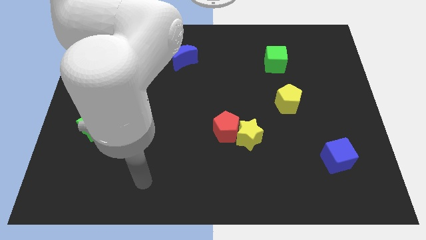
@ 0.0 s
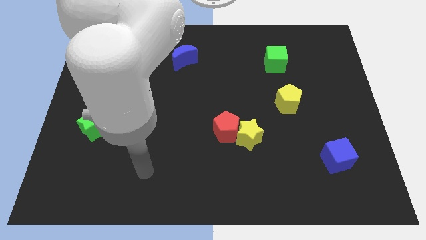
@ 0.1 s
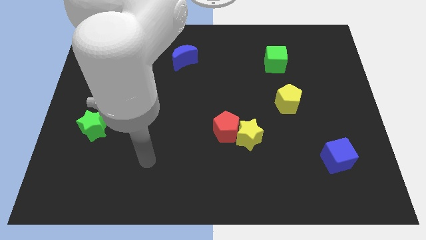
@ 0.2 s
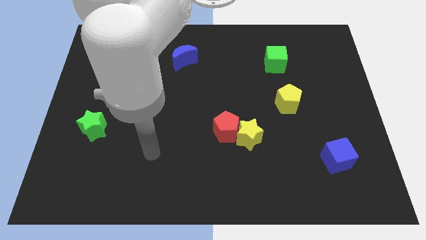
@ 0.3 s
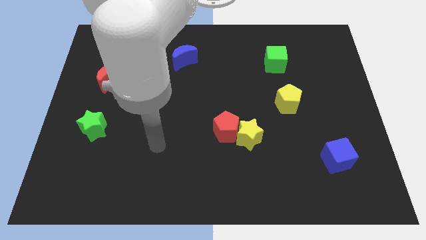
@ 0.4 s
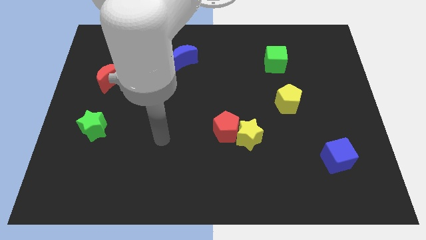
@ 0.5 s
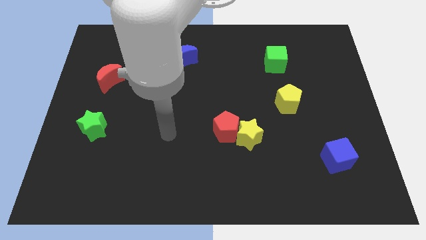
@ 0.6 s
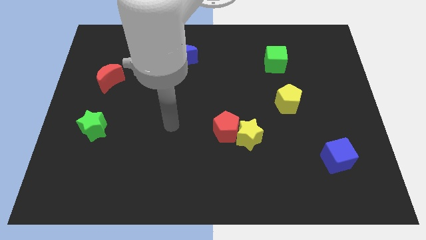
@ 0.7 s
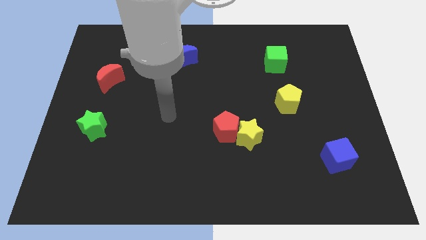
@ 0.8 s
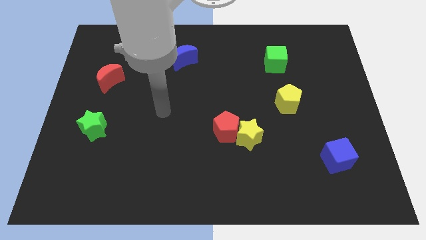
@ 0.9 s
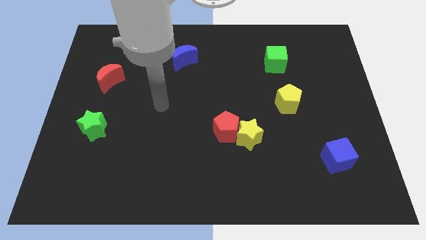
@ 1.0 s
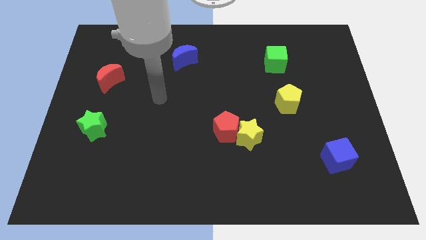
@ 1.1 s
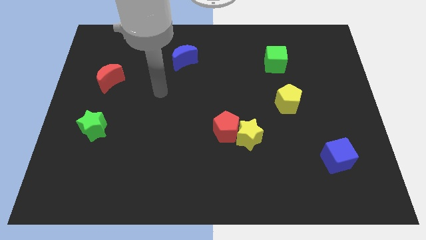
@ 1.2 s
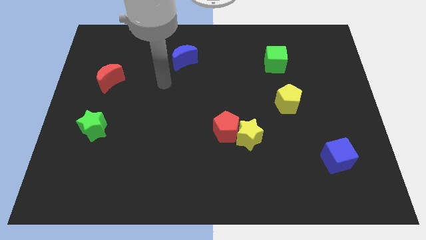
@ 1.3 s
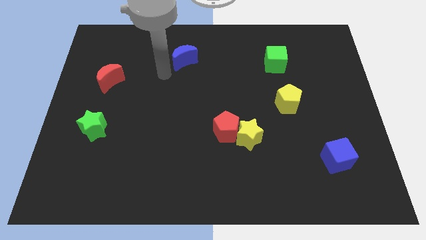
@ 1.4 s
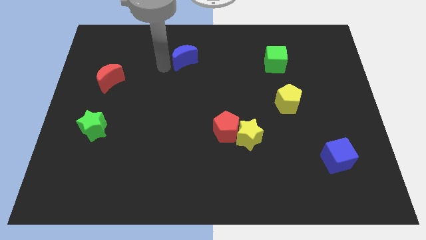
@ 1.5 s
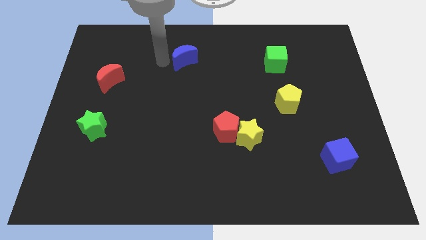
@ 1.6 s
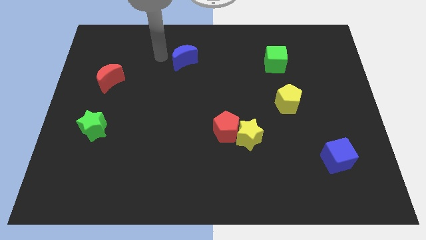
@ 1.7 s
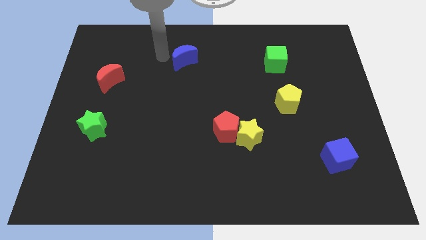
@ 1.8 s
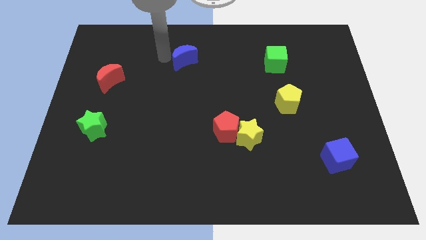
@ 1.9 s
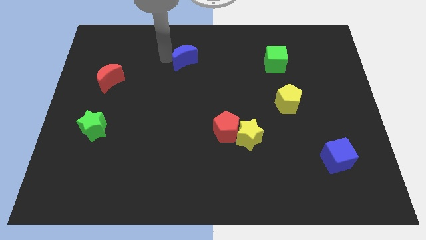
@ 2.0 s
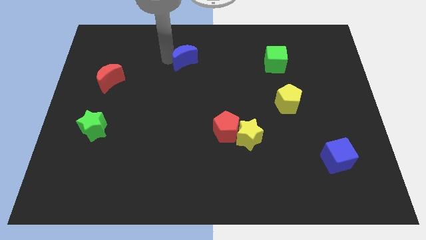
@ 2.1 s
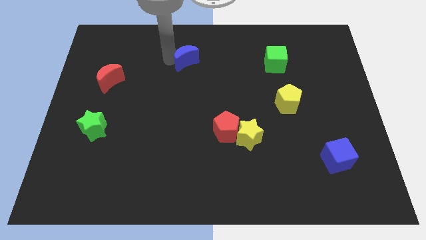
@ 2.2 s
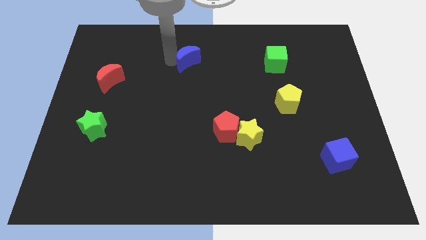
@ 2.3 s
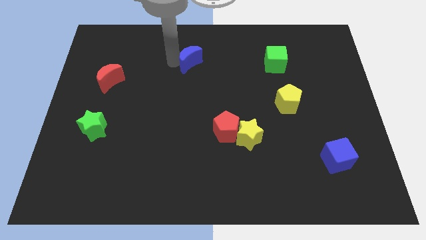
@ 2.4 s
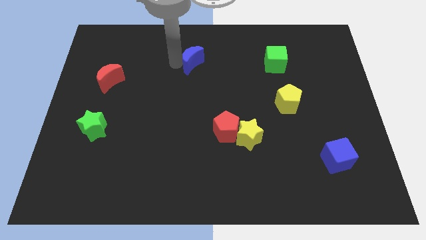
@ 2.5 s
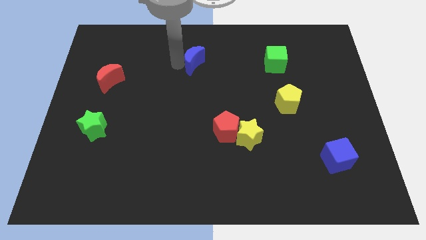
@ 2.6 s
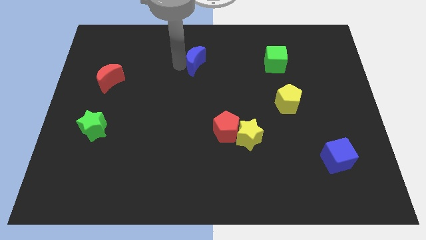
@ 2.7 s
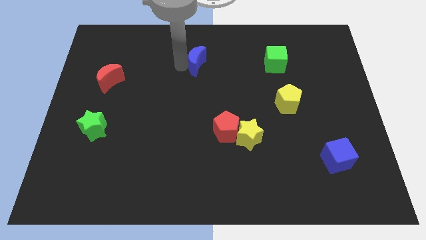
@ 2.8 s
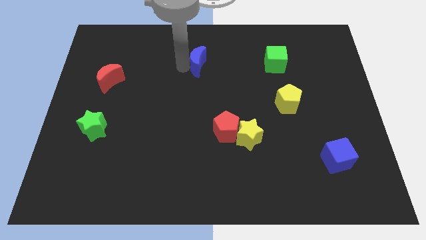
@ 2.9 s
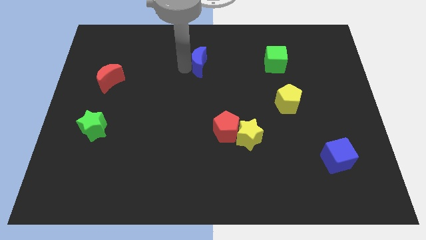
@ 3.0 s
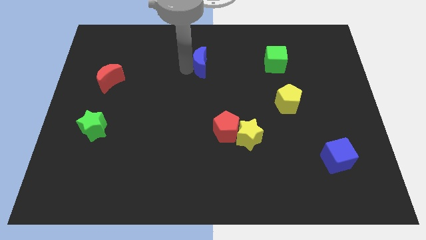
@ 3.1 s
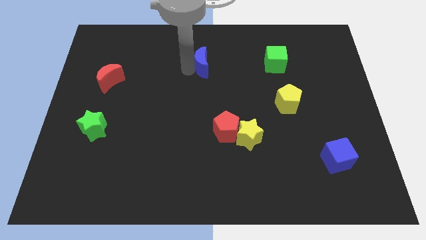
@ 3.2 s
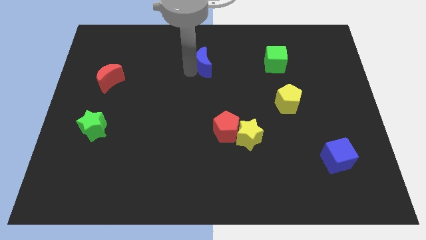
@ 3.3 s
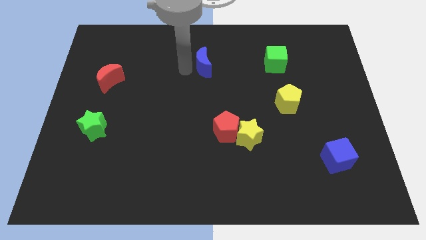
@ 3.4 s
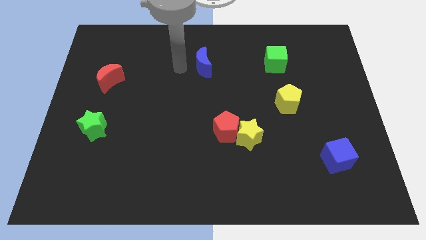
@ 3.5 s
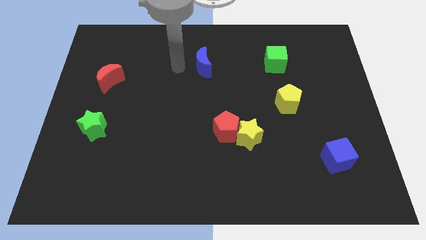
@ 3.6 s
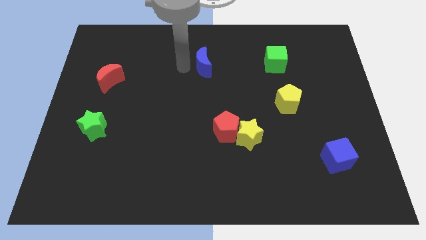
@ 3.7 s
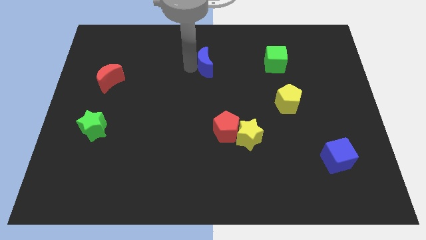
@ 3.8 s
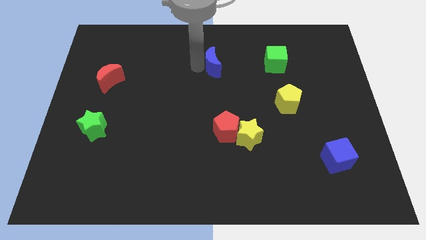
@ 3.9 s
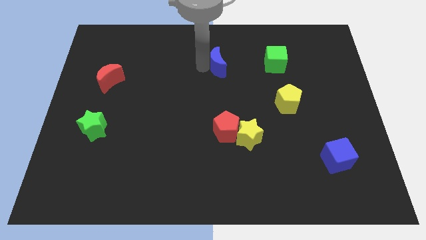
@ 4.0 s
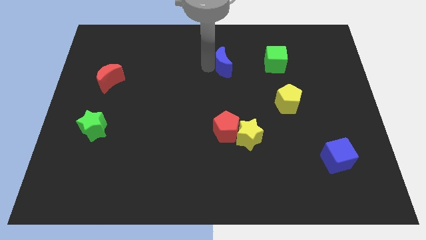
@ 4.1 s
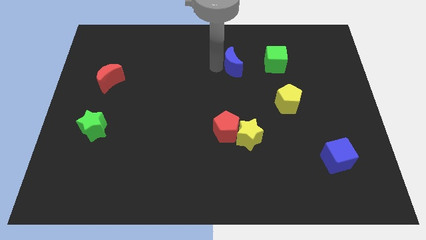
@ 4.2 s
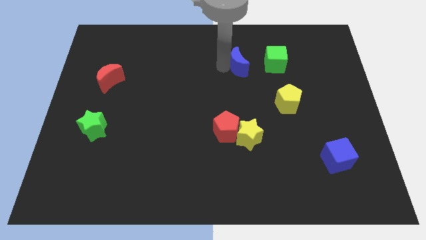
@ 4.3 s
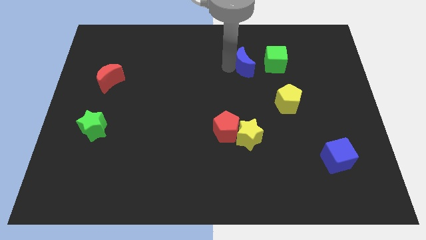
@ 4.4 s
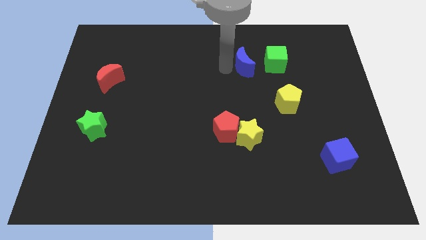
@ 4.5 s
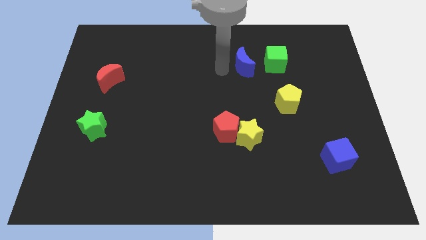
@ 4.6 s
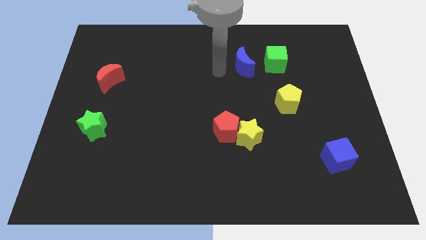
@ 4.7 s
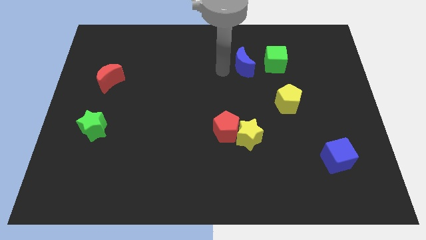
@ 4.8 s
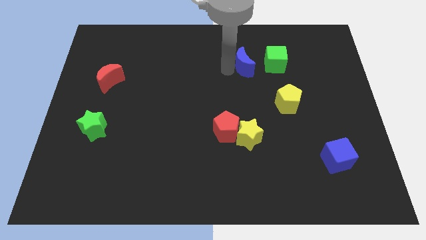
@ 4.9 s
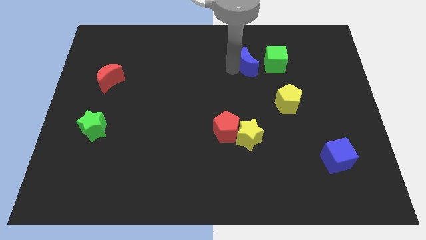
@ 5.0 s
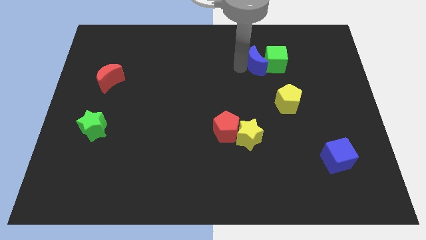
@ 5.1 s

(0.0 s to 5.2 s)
put the blue moon next to the green cube

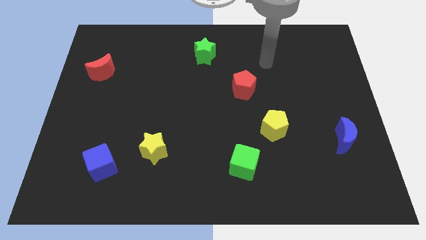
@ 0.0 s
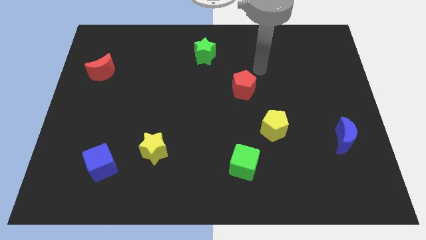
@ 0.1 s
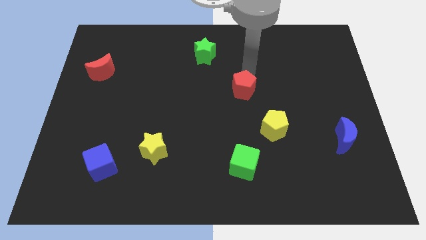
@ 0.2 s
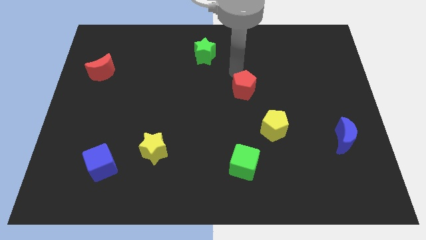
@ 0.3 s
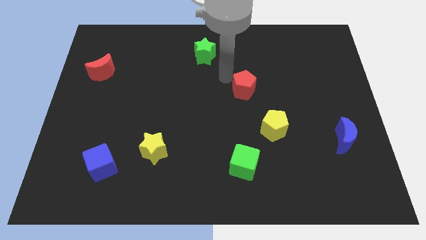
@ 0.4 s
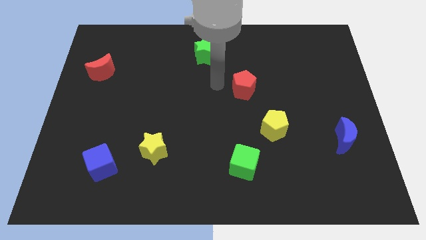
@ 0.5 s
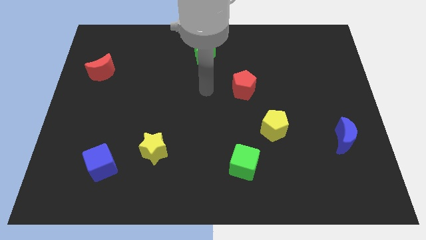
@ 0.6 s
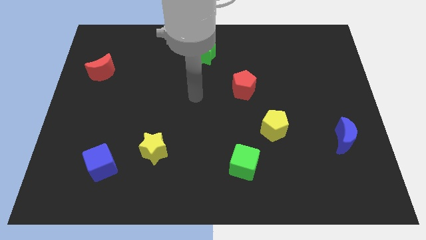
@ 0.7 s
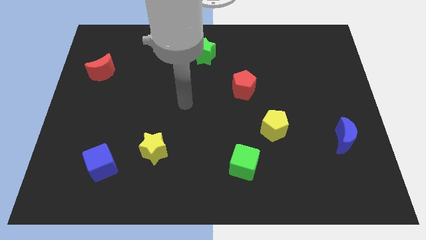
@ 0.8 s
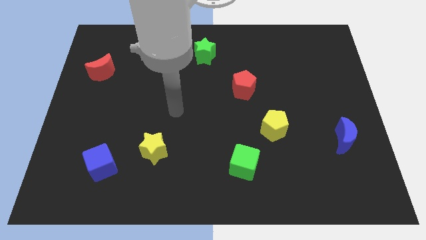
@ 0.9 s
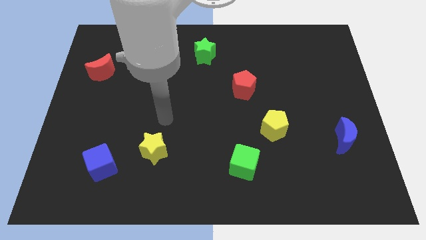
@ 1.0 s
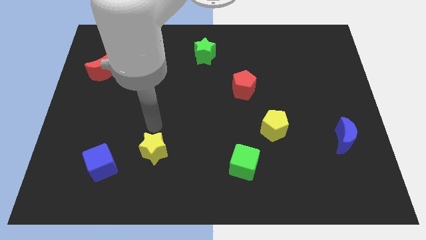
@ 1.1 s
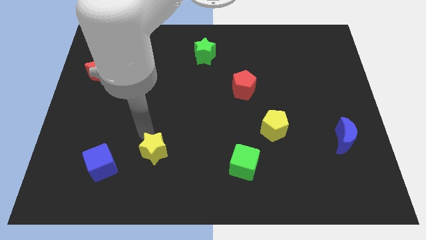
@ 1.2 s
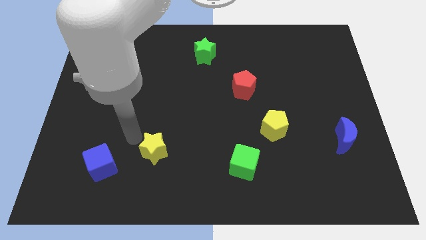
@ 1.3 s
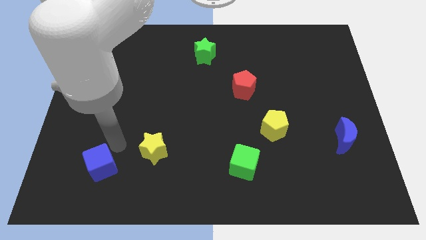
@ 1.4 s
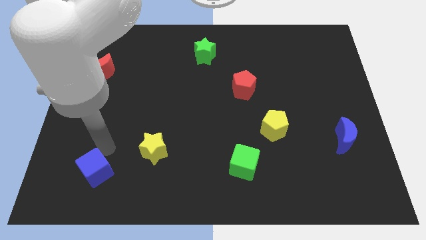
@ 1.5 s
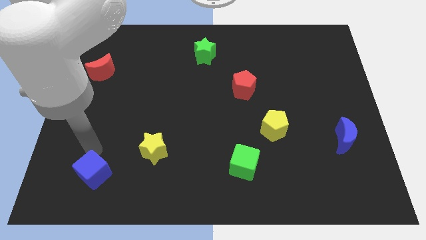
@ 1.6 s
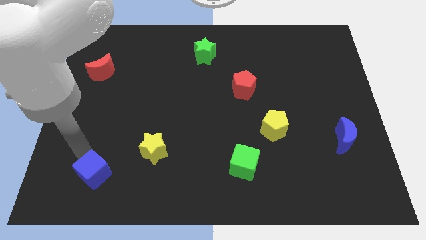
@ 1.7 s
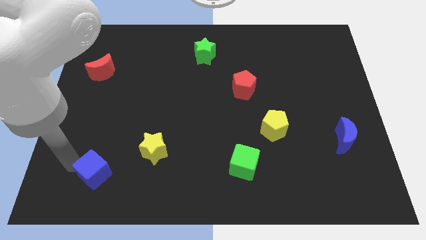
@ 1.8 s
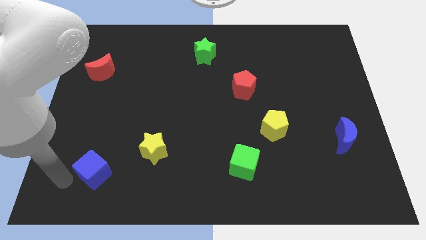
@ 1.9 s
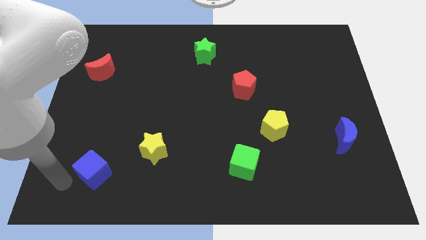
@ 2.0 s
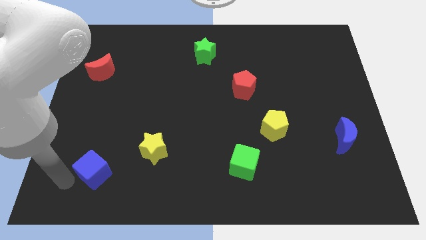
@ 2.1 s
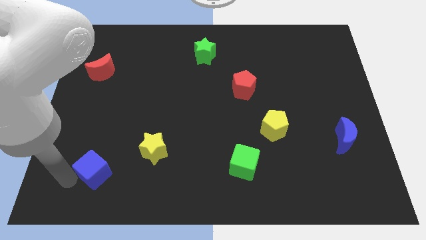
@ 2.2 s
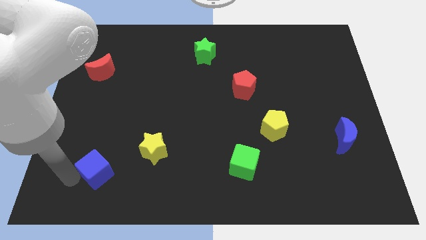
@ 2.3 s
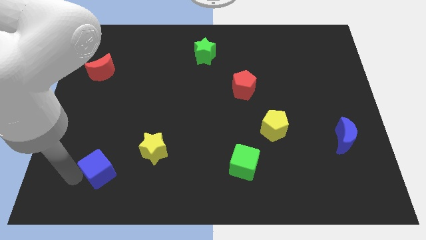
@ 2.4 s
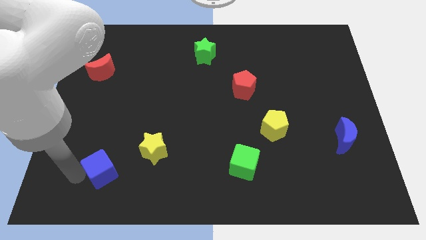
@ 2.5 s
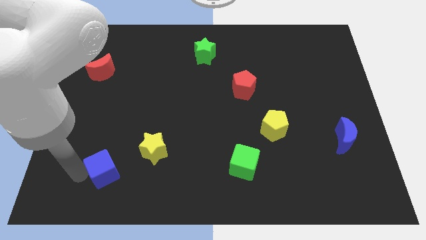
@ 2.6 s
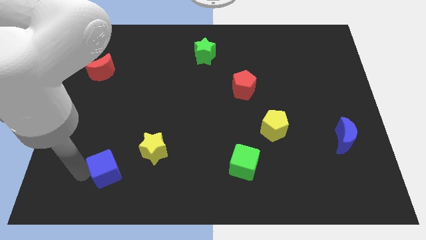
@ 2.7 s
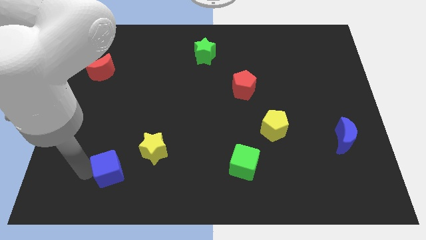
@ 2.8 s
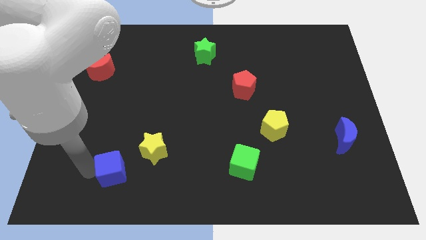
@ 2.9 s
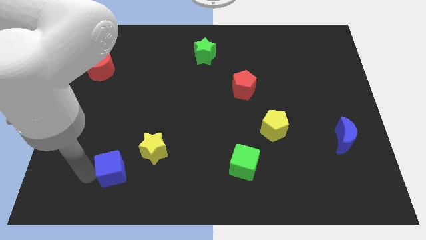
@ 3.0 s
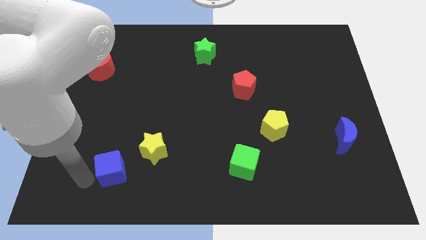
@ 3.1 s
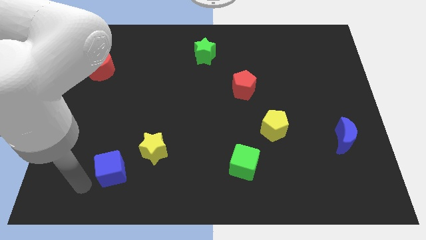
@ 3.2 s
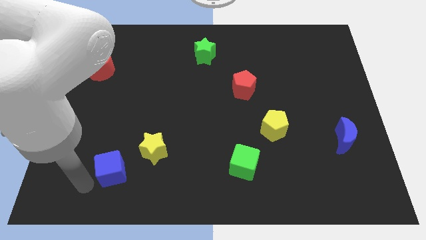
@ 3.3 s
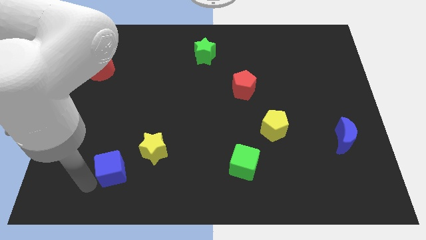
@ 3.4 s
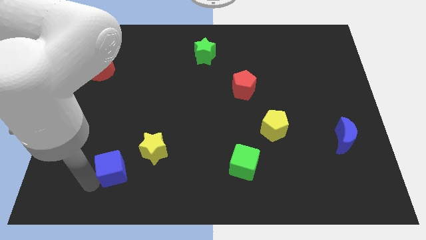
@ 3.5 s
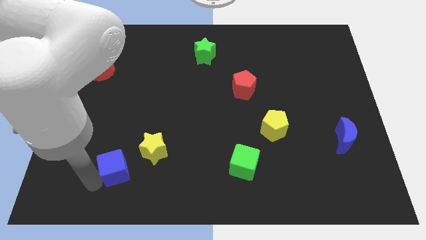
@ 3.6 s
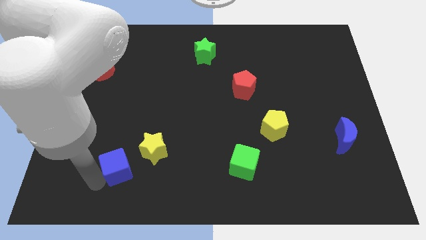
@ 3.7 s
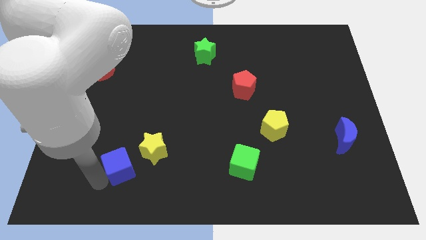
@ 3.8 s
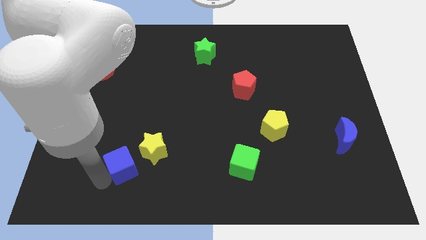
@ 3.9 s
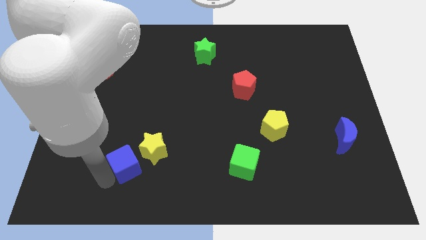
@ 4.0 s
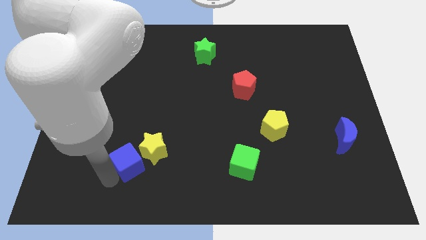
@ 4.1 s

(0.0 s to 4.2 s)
slide the blue cube to the yellow star
